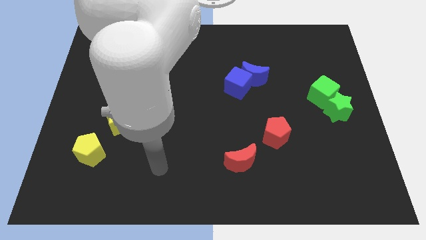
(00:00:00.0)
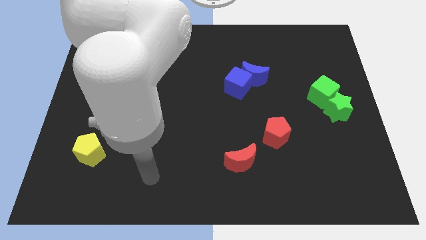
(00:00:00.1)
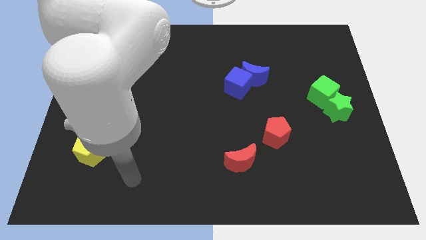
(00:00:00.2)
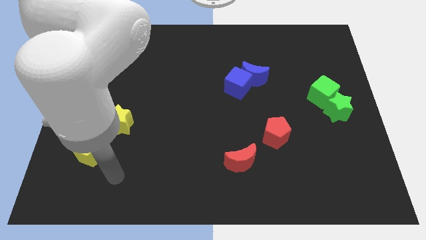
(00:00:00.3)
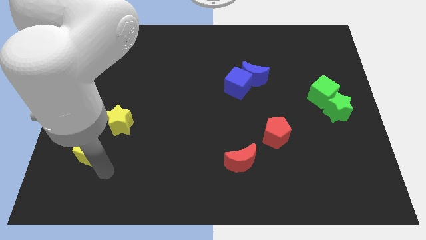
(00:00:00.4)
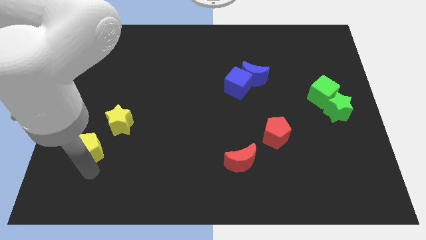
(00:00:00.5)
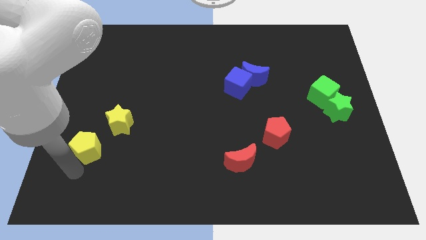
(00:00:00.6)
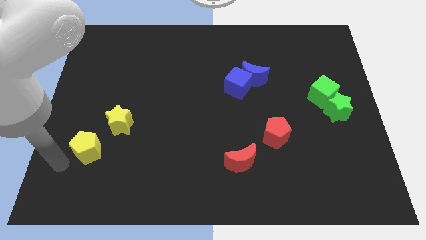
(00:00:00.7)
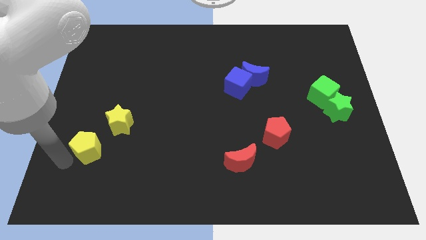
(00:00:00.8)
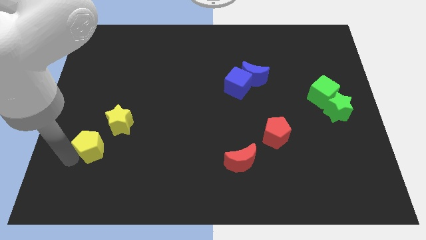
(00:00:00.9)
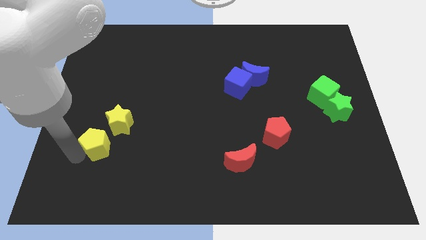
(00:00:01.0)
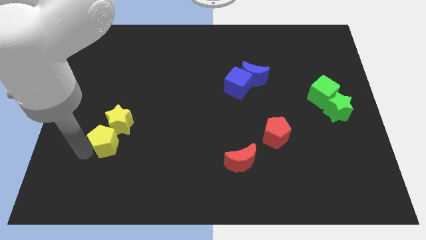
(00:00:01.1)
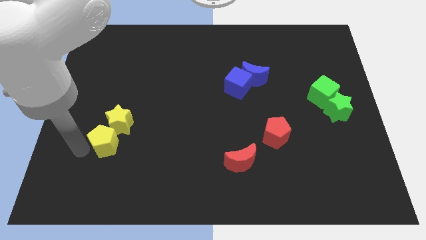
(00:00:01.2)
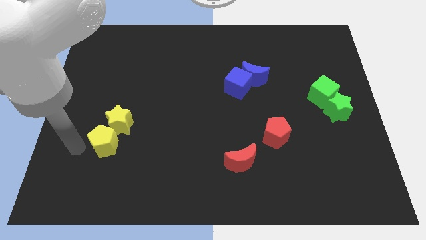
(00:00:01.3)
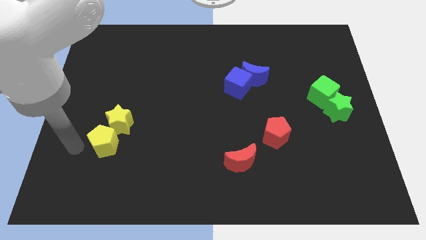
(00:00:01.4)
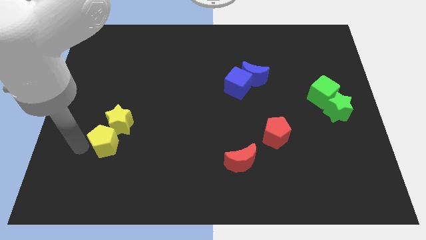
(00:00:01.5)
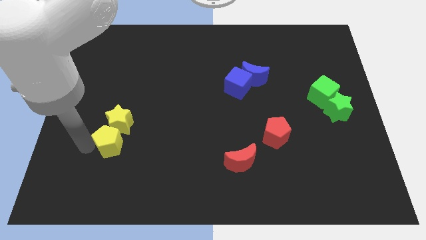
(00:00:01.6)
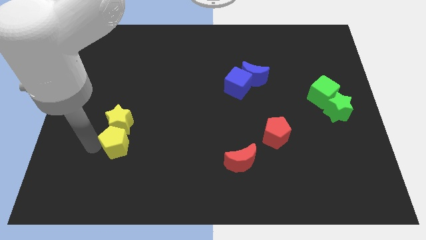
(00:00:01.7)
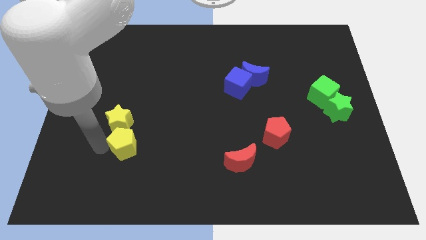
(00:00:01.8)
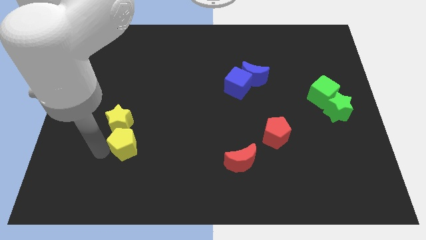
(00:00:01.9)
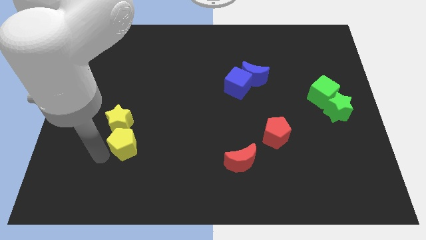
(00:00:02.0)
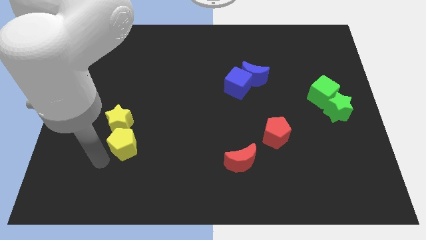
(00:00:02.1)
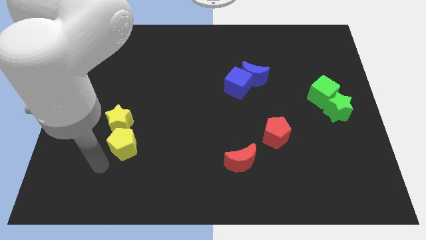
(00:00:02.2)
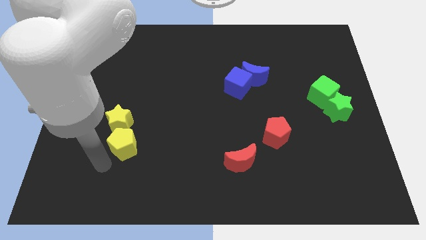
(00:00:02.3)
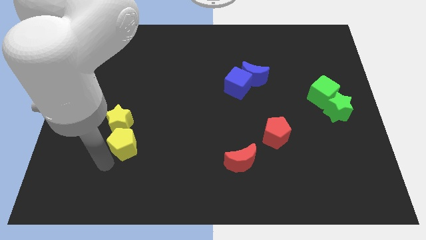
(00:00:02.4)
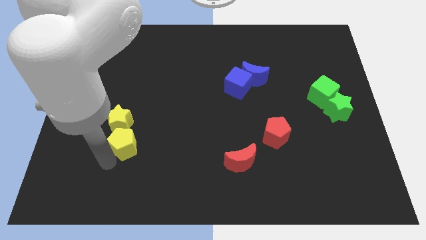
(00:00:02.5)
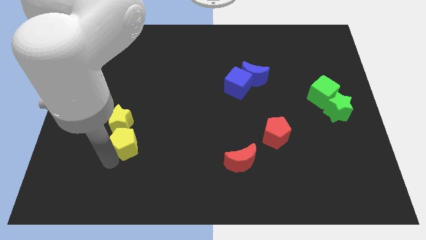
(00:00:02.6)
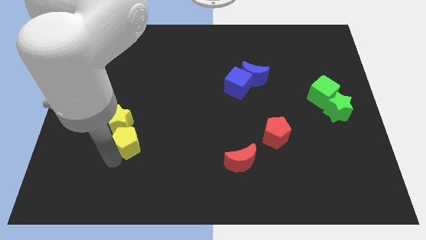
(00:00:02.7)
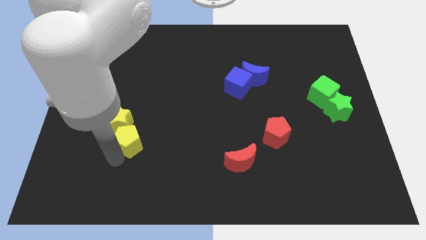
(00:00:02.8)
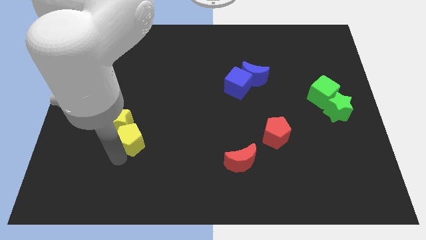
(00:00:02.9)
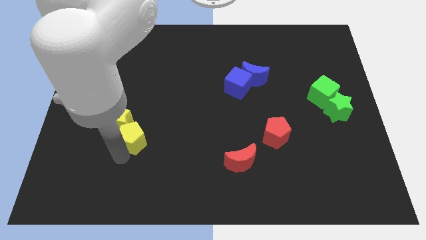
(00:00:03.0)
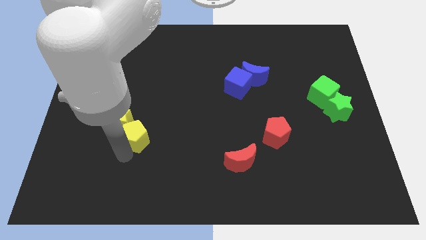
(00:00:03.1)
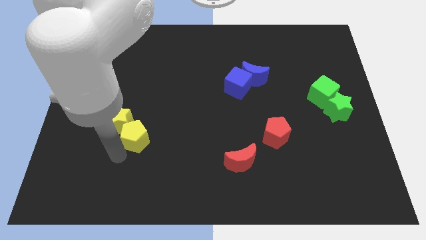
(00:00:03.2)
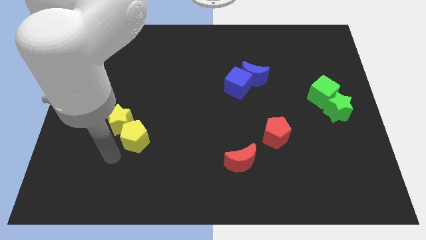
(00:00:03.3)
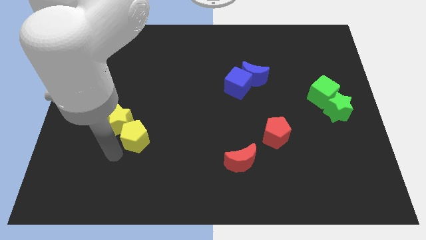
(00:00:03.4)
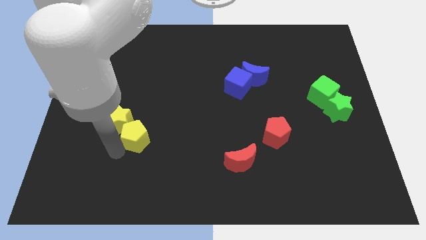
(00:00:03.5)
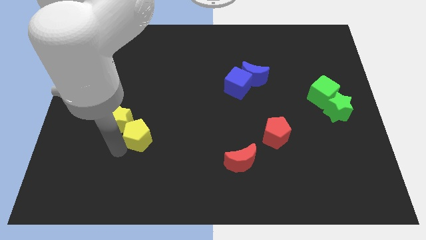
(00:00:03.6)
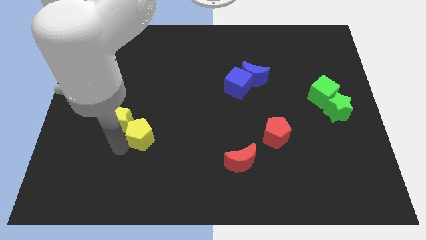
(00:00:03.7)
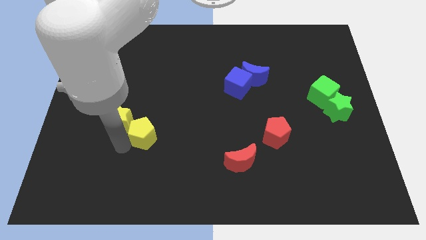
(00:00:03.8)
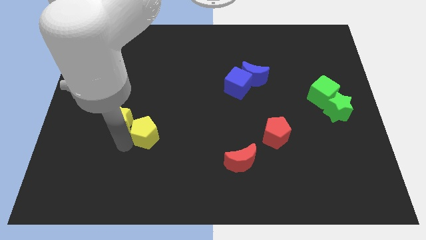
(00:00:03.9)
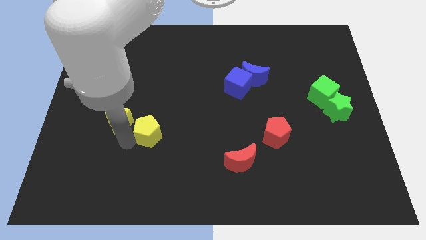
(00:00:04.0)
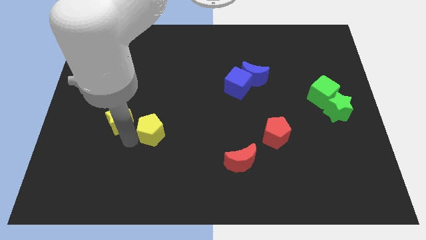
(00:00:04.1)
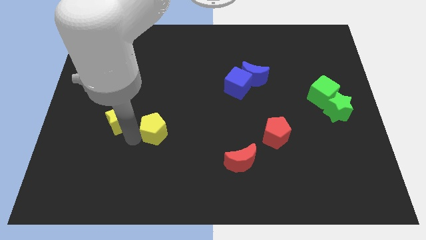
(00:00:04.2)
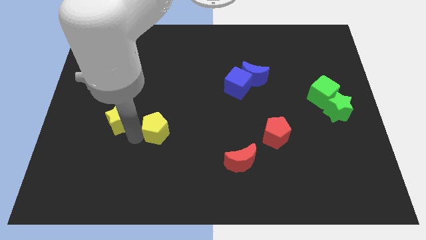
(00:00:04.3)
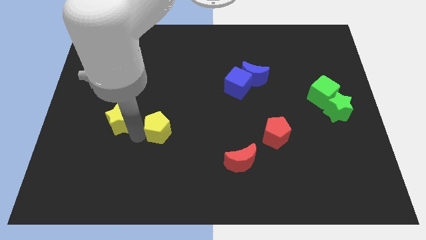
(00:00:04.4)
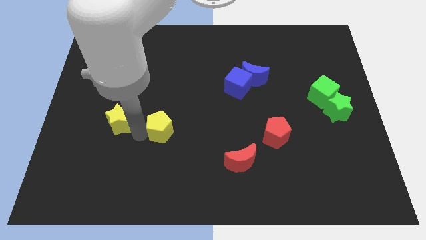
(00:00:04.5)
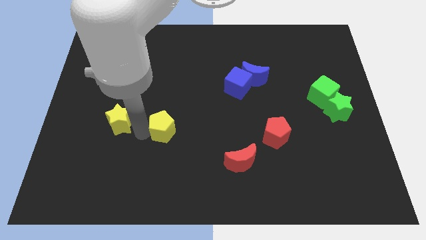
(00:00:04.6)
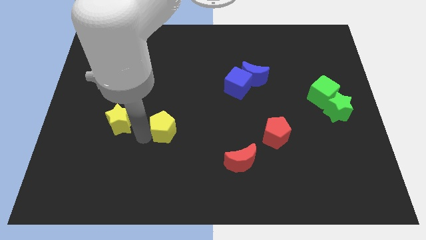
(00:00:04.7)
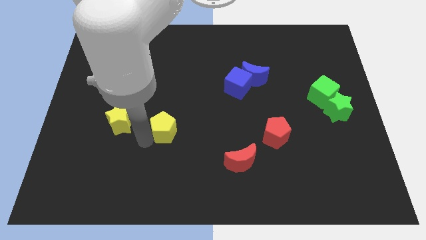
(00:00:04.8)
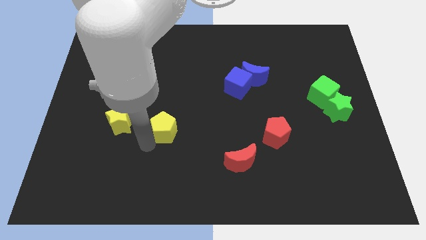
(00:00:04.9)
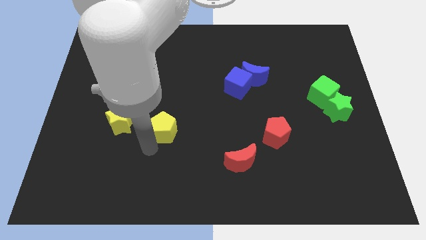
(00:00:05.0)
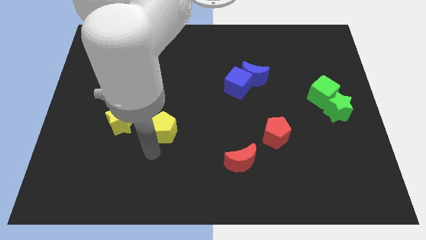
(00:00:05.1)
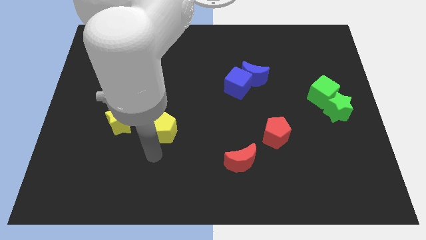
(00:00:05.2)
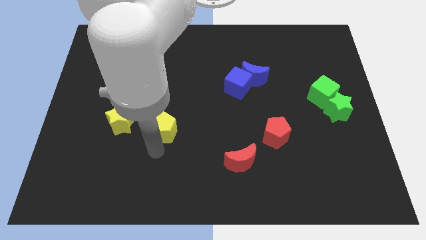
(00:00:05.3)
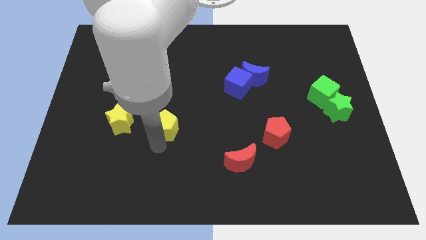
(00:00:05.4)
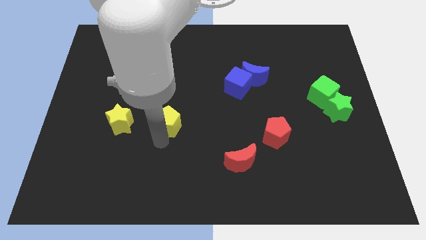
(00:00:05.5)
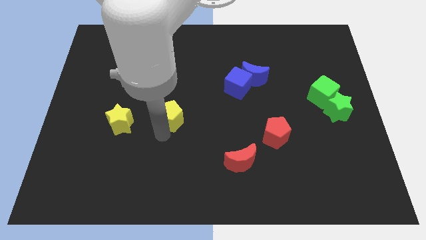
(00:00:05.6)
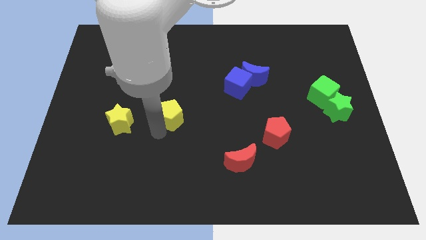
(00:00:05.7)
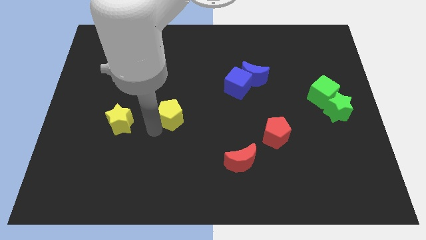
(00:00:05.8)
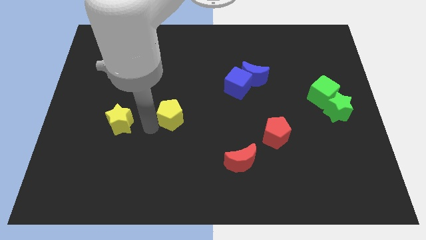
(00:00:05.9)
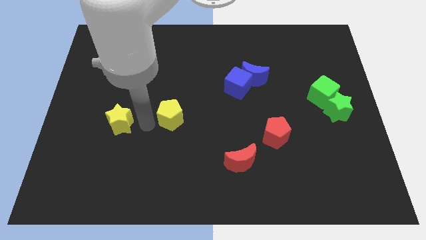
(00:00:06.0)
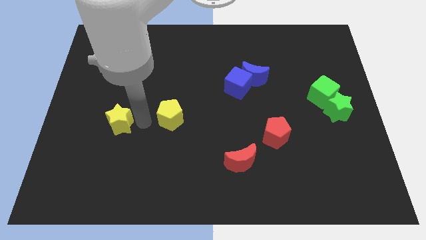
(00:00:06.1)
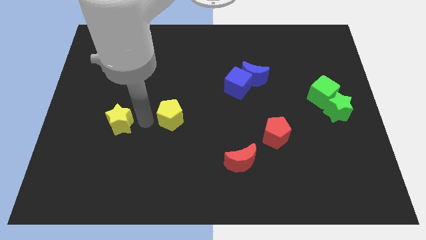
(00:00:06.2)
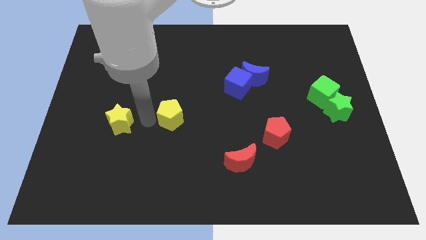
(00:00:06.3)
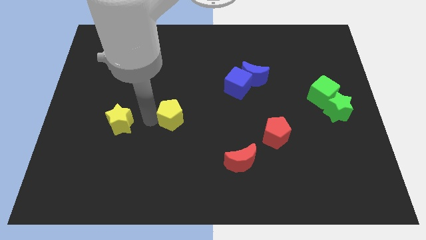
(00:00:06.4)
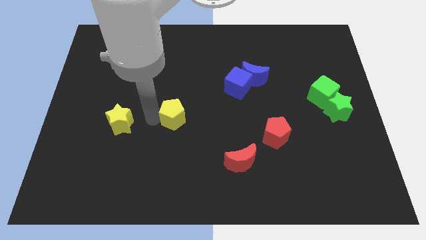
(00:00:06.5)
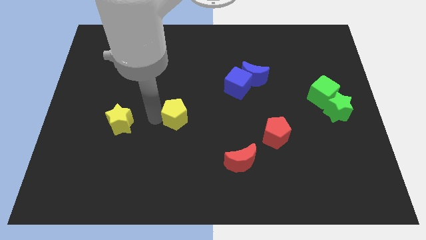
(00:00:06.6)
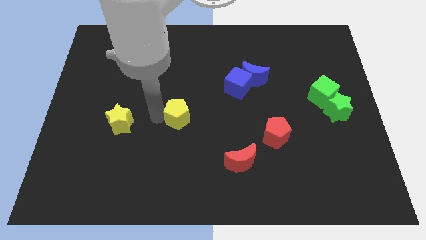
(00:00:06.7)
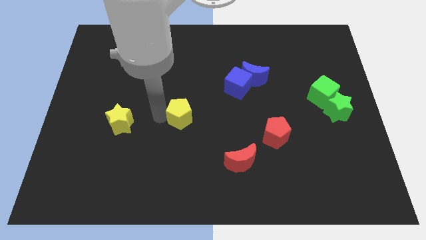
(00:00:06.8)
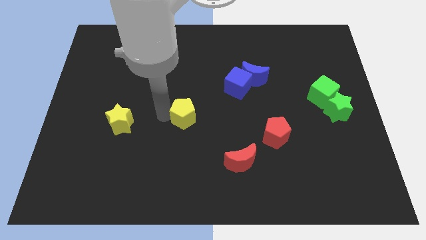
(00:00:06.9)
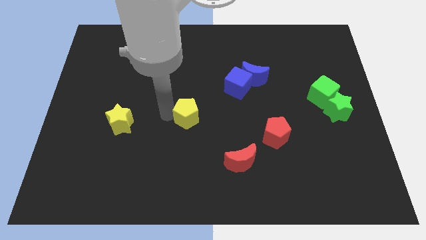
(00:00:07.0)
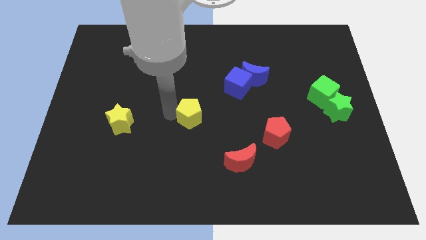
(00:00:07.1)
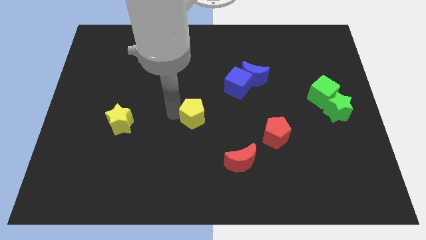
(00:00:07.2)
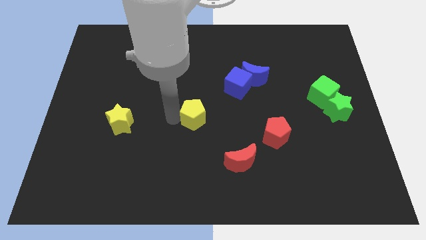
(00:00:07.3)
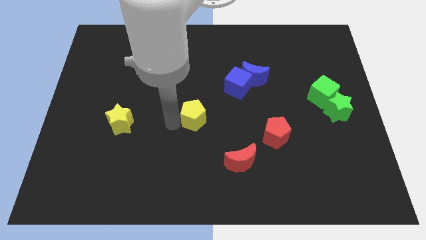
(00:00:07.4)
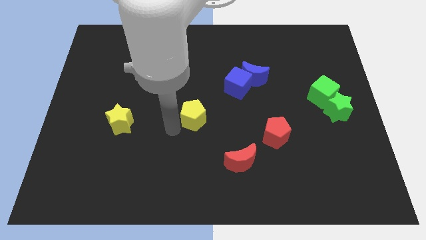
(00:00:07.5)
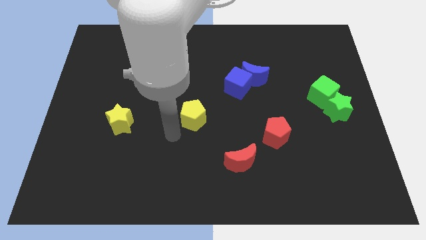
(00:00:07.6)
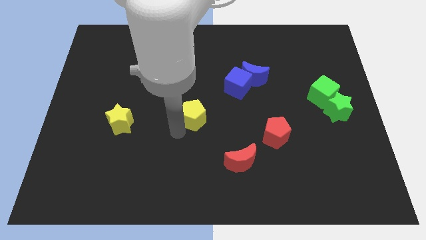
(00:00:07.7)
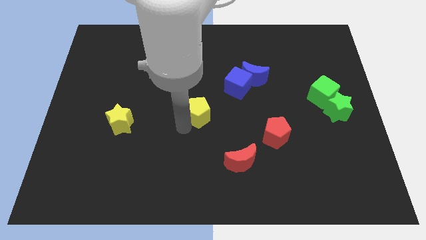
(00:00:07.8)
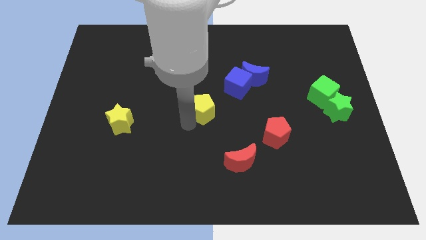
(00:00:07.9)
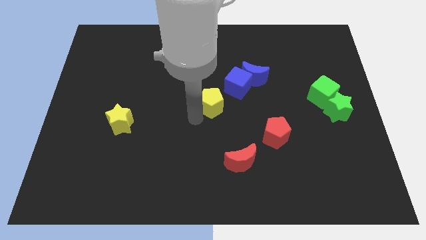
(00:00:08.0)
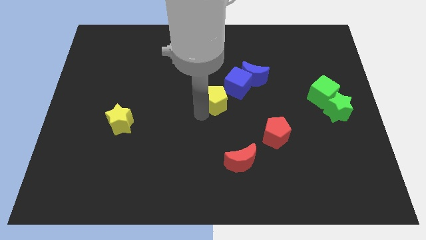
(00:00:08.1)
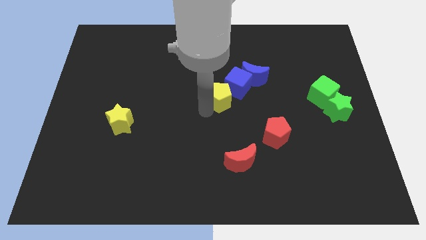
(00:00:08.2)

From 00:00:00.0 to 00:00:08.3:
put the yellow pentagon to the blue cube
